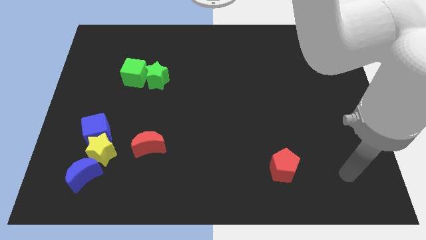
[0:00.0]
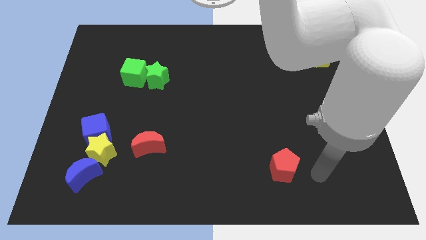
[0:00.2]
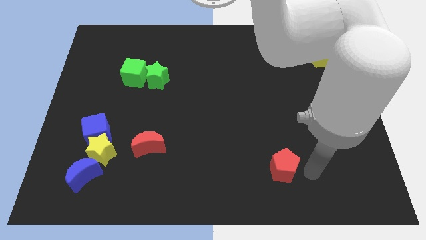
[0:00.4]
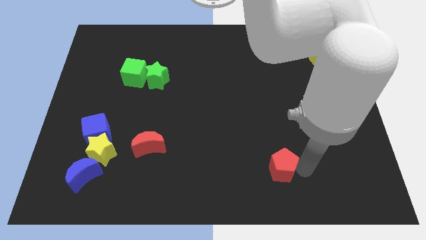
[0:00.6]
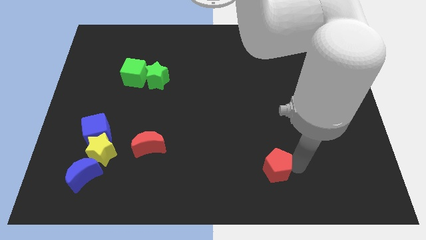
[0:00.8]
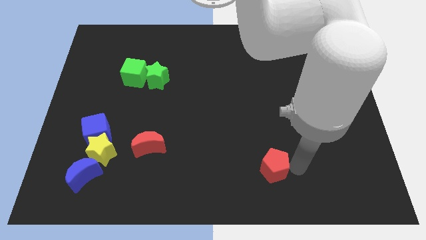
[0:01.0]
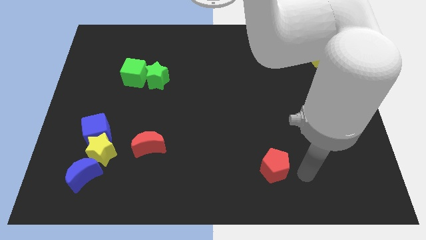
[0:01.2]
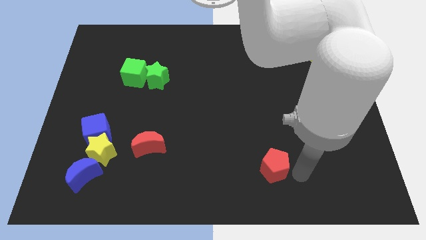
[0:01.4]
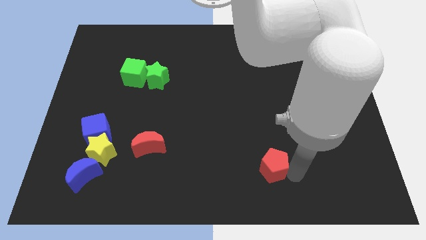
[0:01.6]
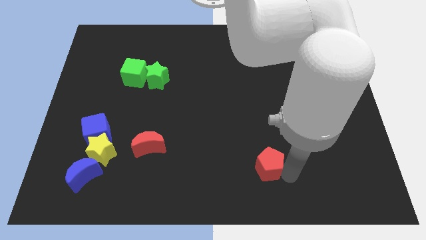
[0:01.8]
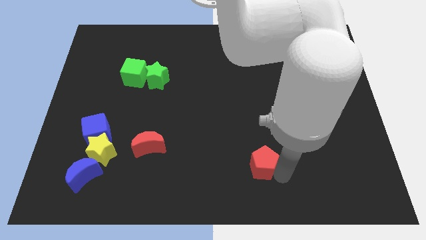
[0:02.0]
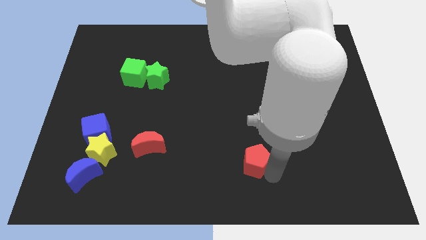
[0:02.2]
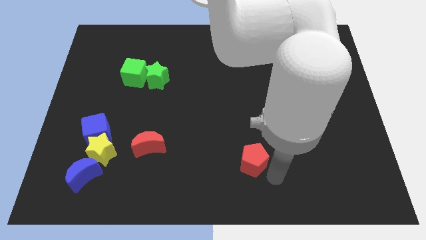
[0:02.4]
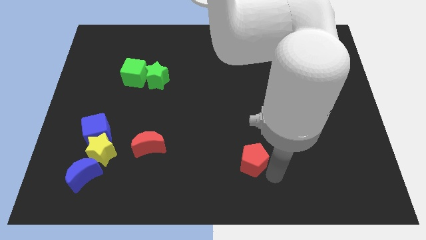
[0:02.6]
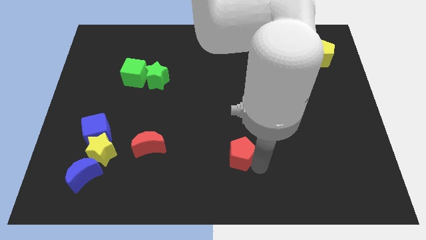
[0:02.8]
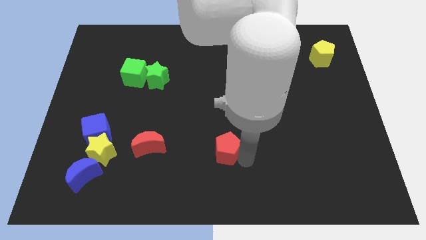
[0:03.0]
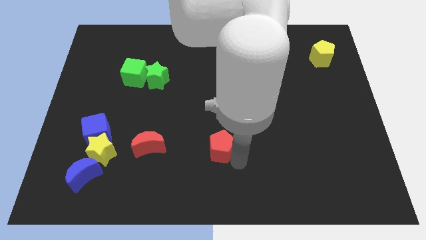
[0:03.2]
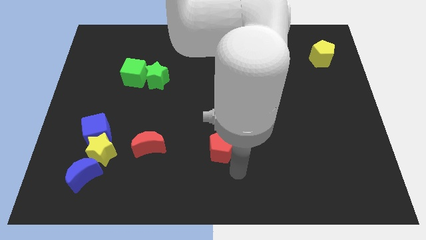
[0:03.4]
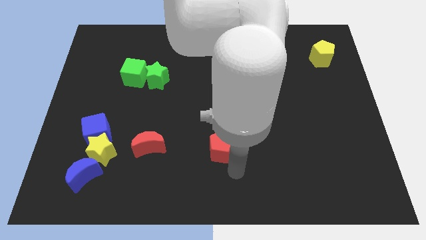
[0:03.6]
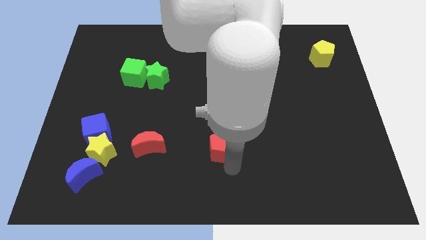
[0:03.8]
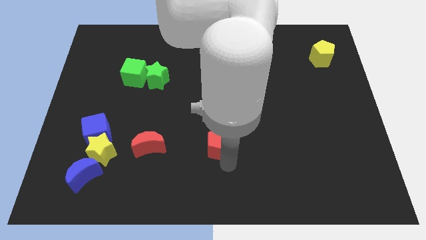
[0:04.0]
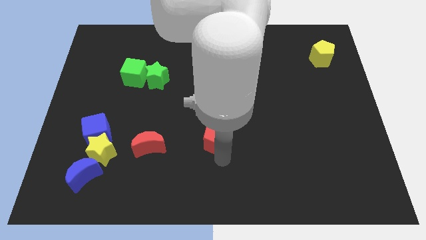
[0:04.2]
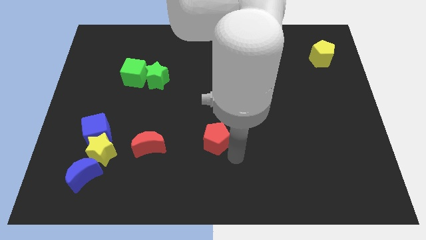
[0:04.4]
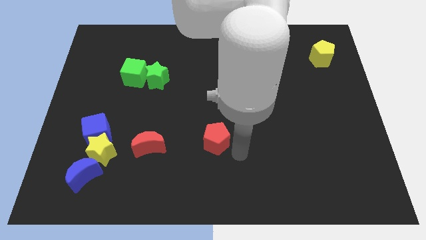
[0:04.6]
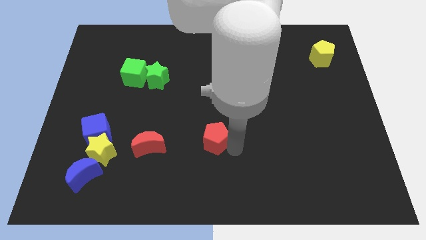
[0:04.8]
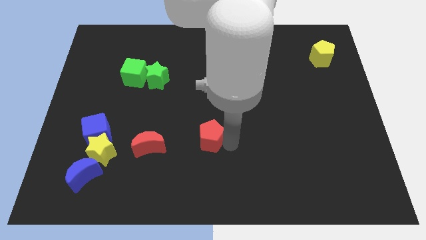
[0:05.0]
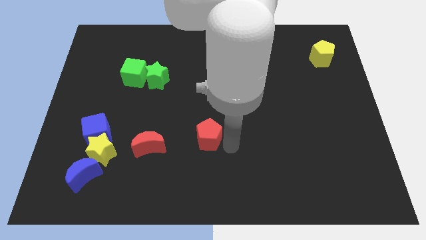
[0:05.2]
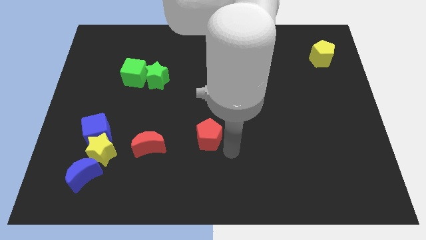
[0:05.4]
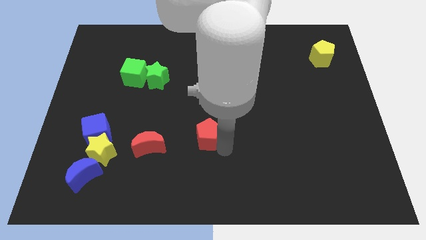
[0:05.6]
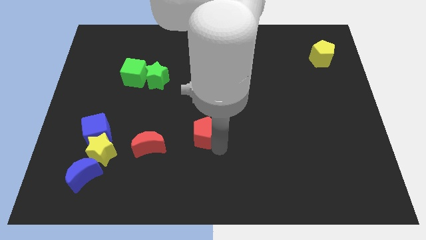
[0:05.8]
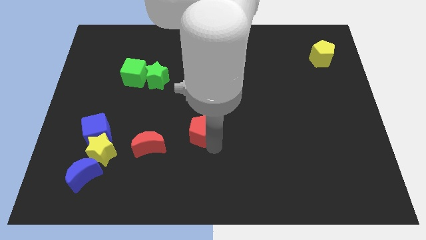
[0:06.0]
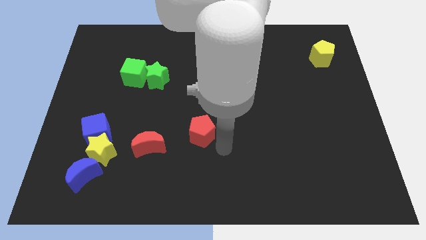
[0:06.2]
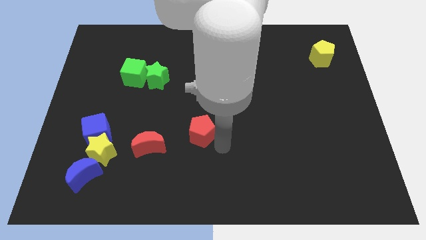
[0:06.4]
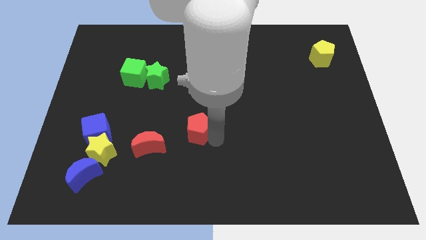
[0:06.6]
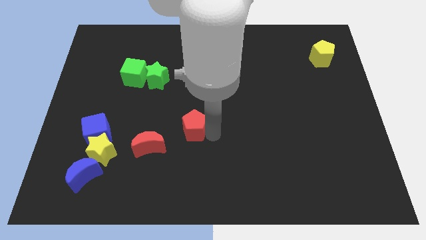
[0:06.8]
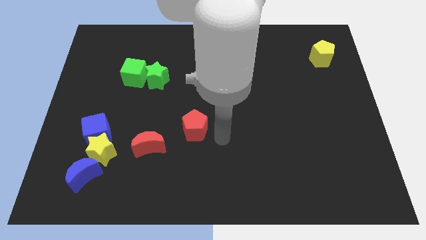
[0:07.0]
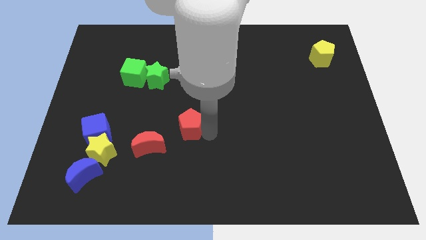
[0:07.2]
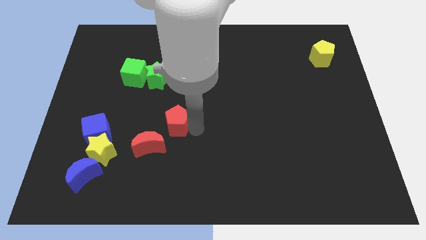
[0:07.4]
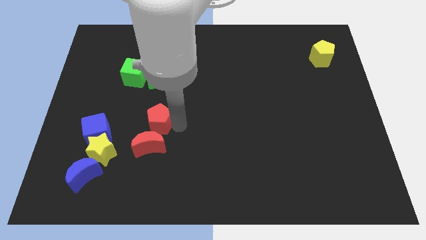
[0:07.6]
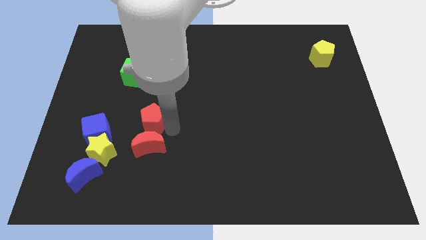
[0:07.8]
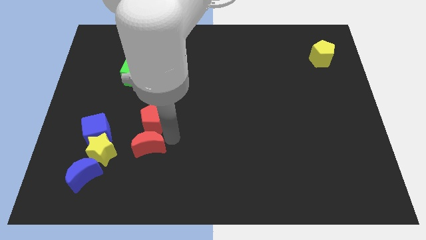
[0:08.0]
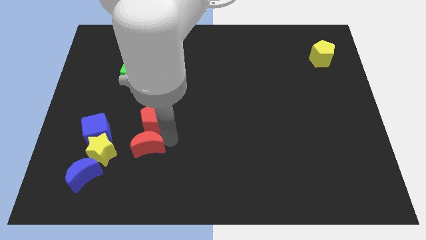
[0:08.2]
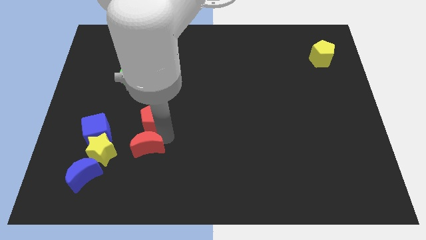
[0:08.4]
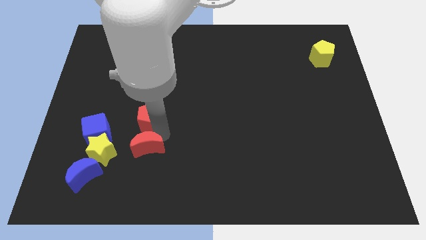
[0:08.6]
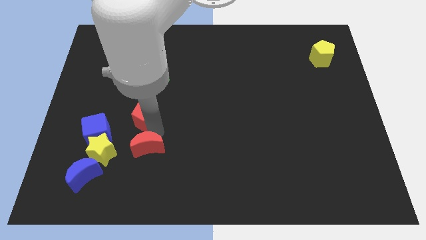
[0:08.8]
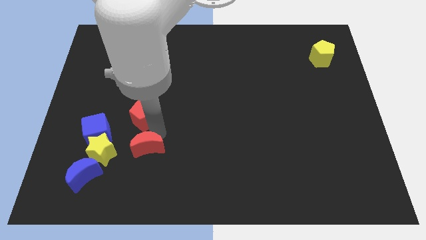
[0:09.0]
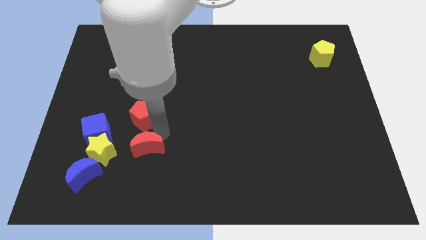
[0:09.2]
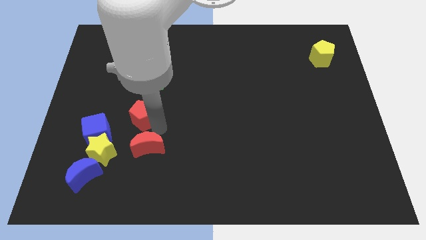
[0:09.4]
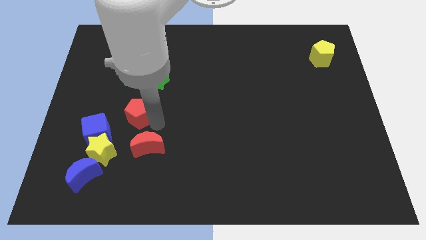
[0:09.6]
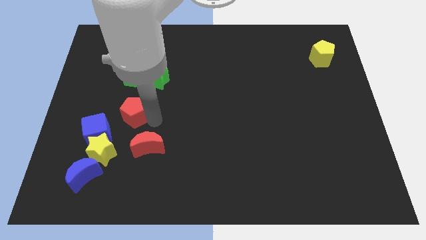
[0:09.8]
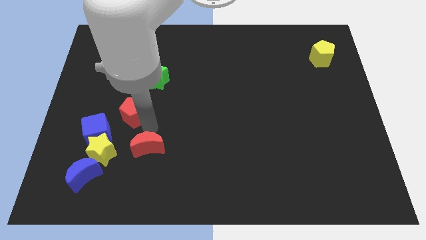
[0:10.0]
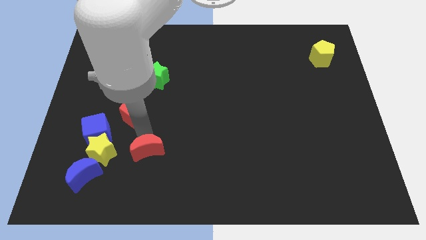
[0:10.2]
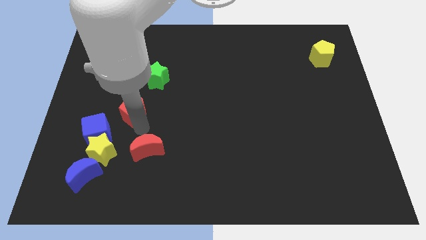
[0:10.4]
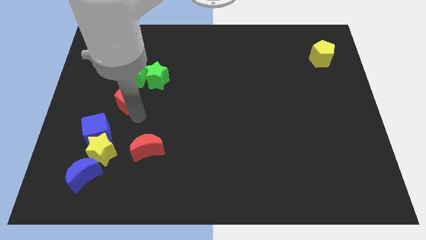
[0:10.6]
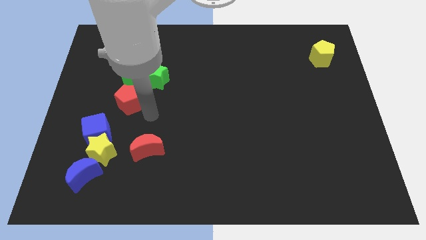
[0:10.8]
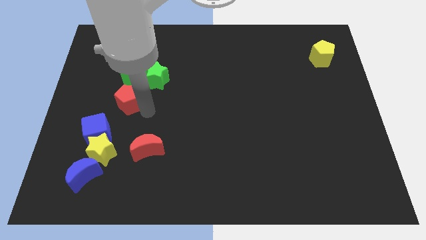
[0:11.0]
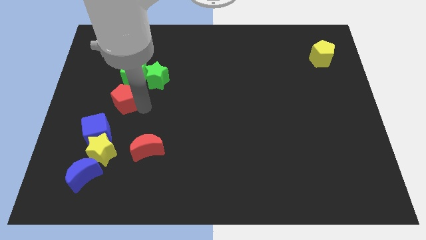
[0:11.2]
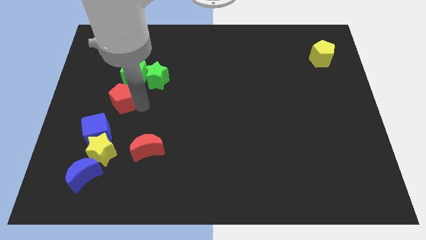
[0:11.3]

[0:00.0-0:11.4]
put the red pentagon to the bottom left of the green cube
